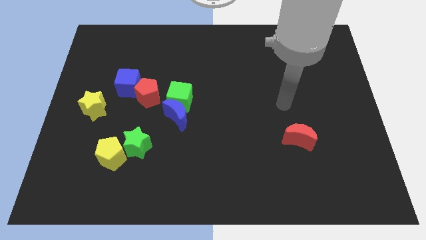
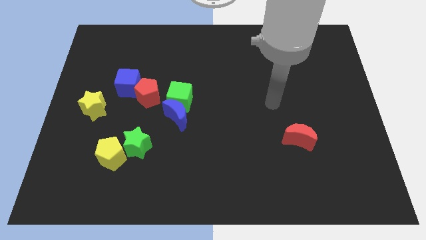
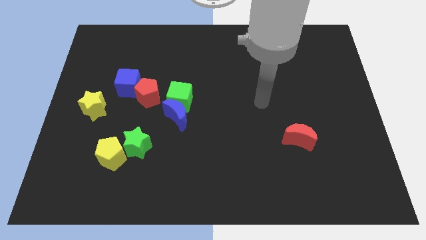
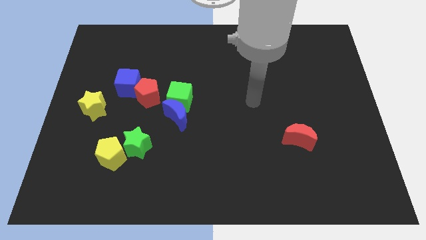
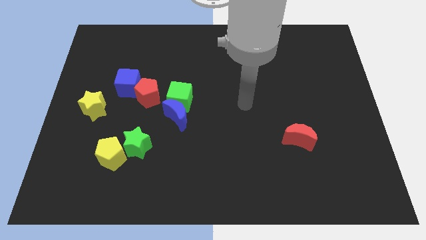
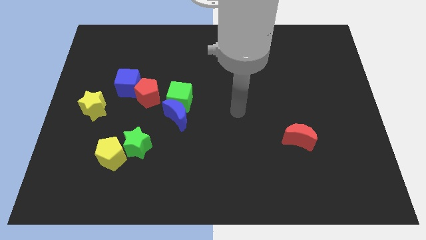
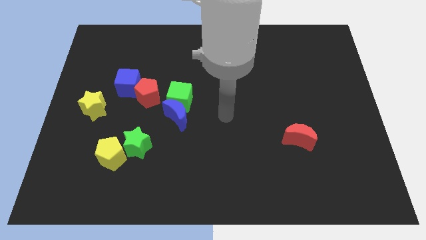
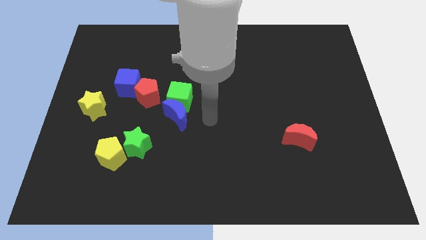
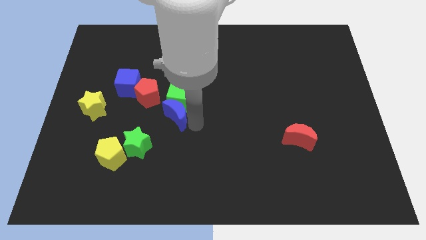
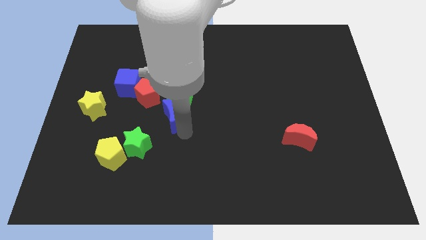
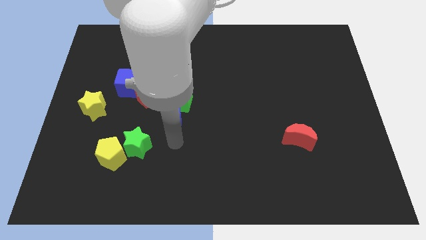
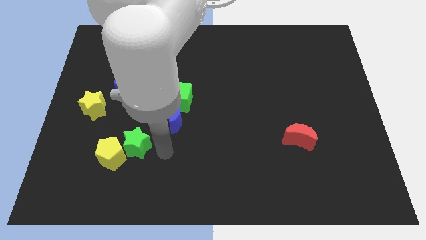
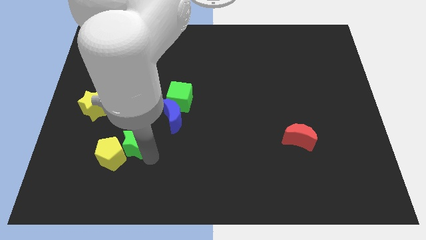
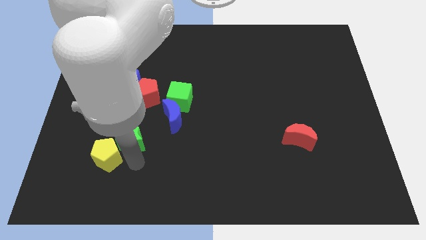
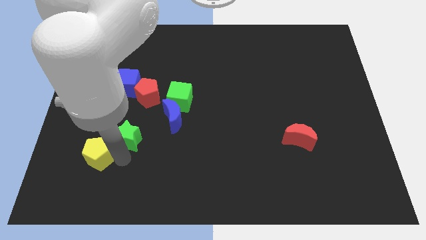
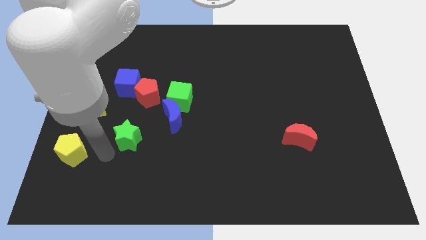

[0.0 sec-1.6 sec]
separate the green star from the yellow pentagon

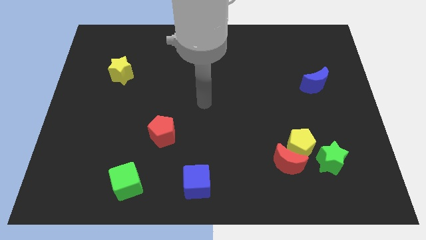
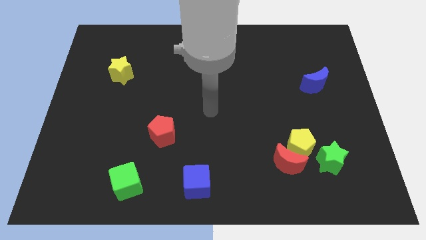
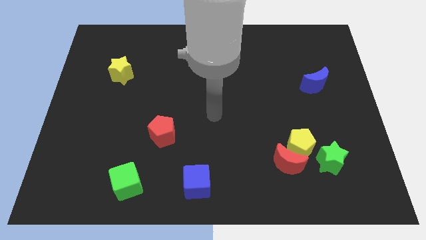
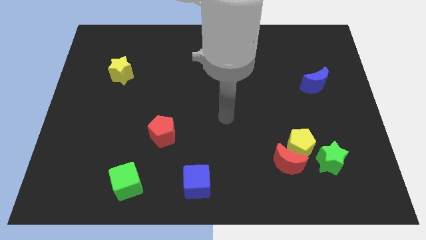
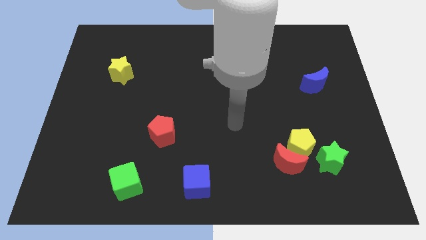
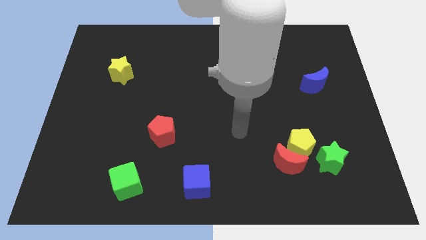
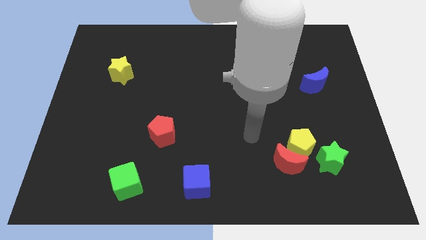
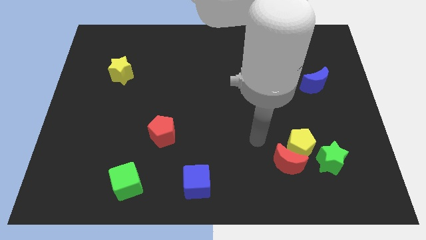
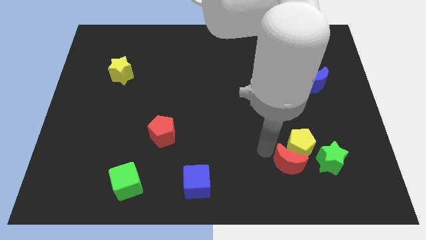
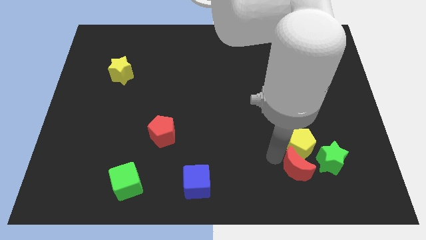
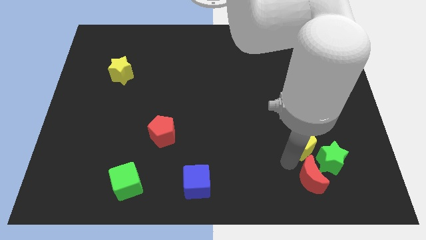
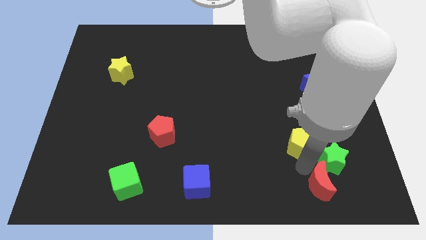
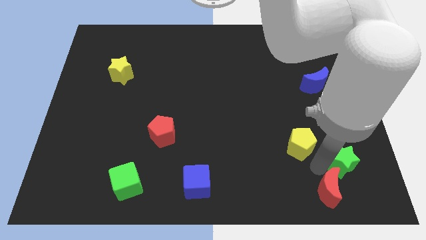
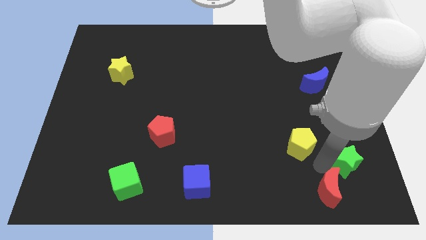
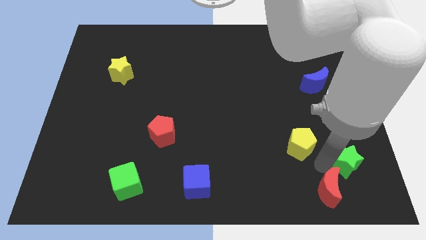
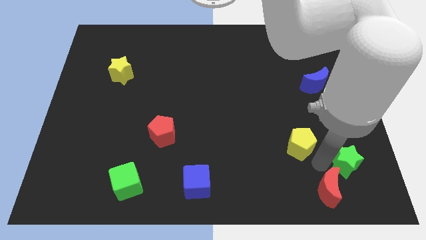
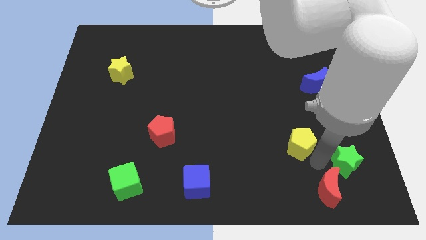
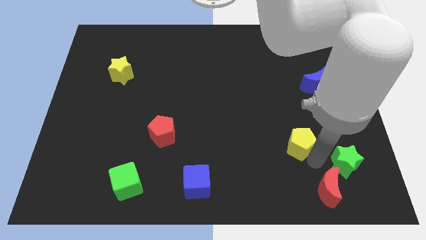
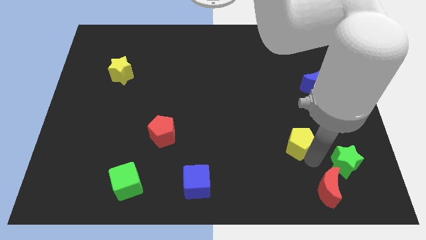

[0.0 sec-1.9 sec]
separate the yellow pentagon from the red moon and green star

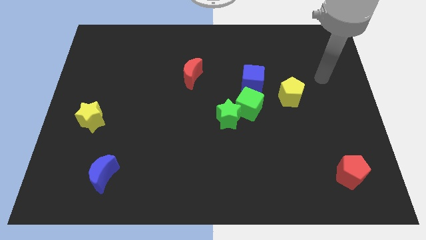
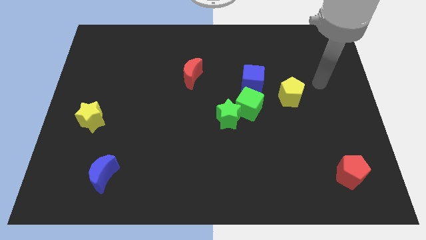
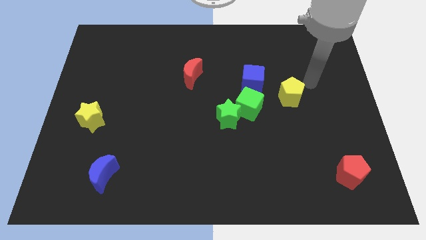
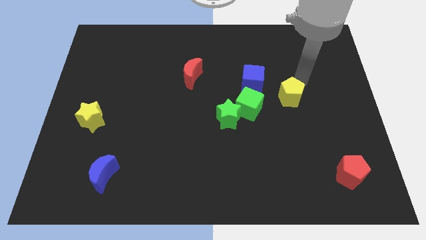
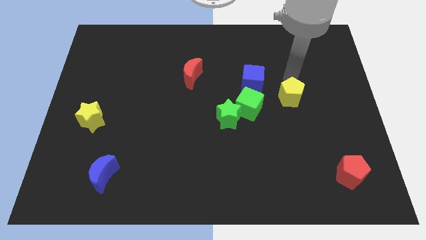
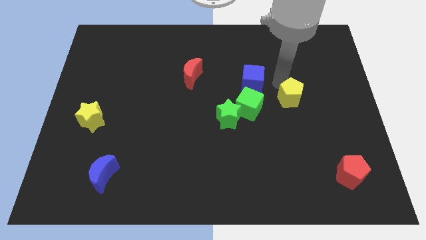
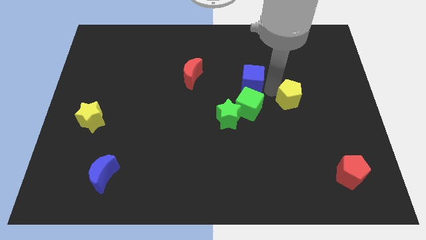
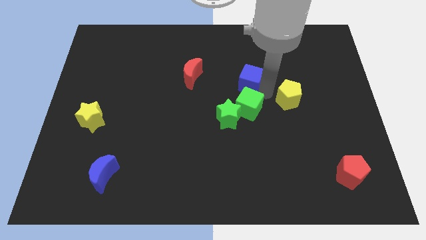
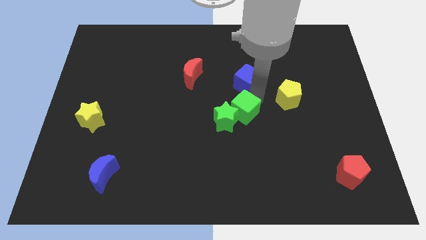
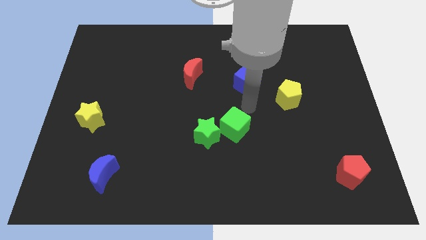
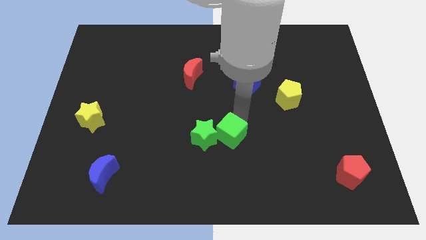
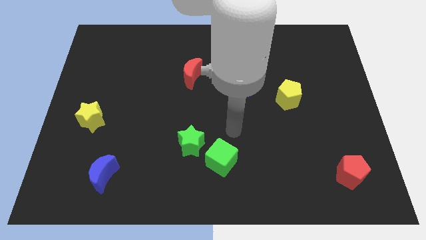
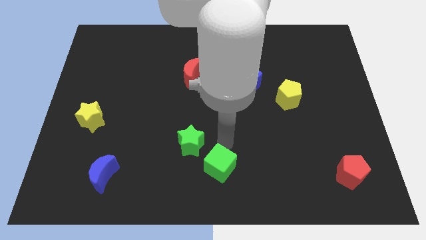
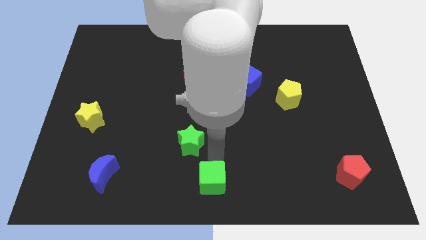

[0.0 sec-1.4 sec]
separate the green star from the green cube

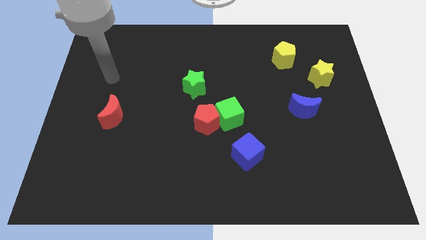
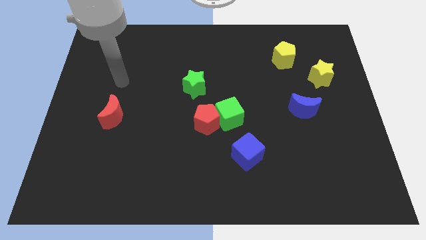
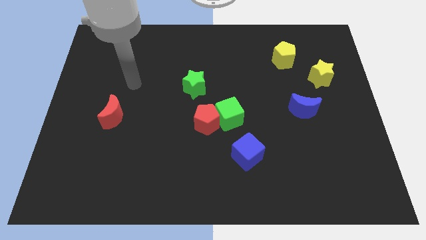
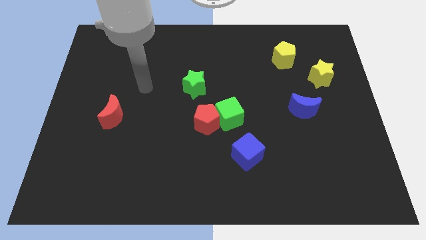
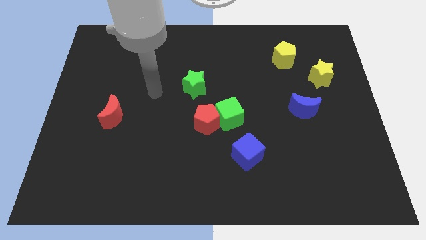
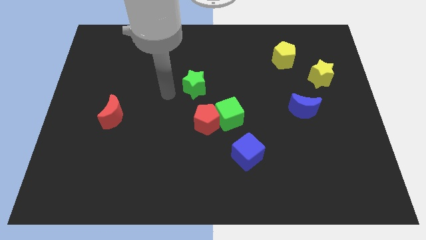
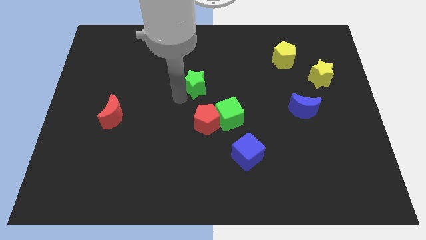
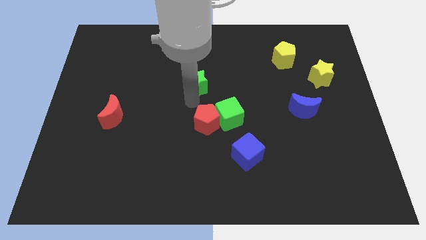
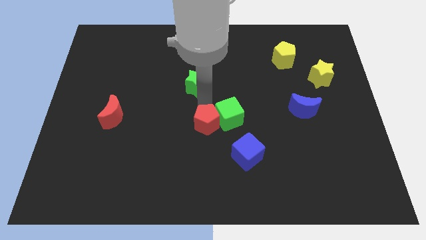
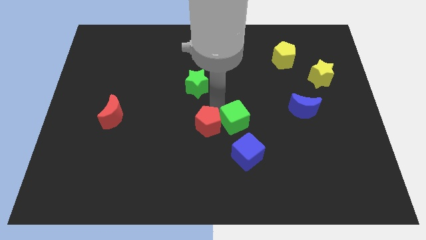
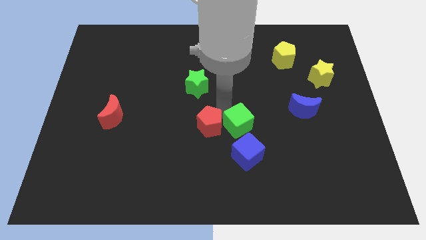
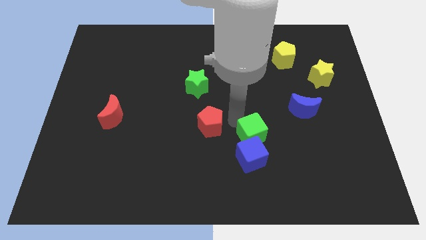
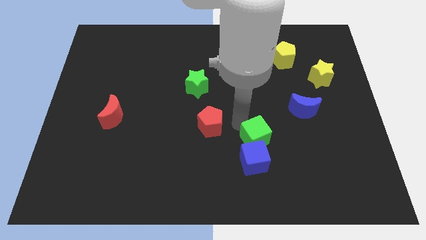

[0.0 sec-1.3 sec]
pull the red pentagon apart from the green cube

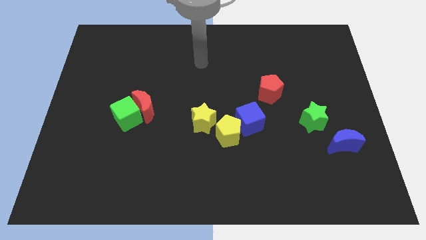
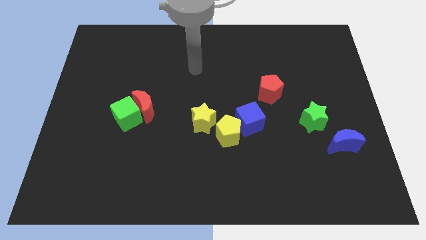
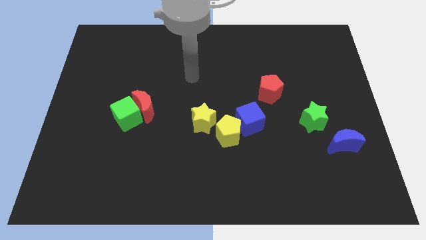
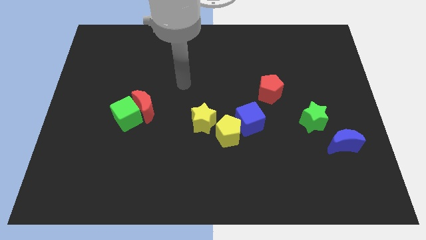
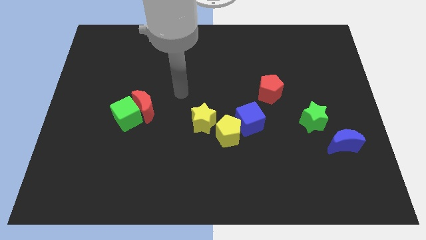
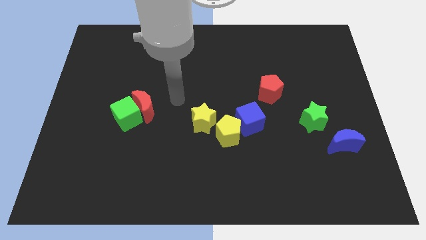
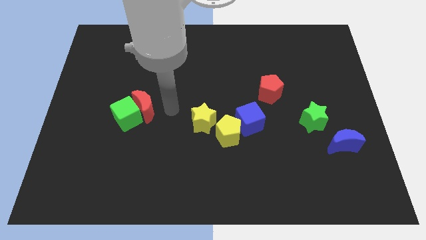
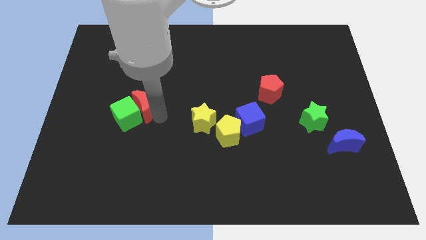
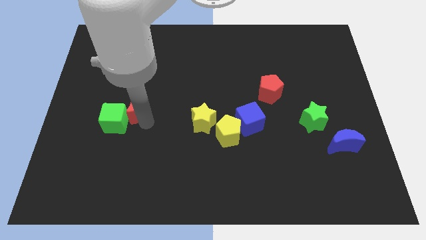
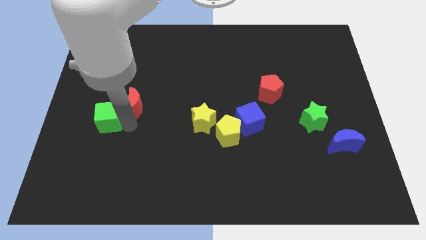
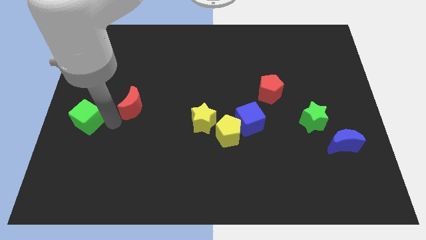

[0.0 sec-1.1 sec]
move the red moon away from the green cube

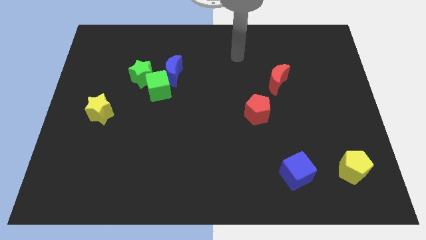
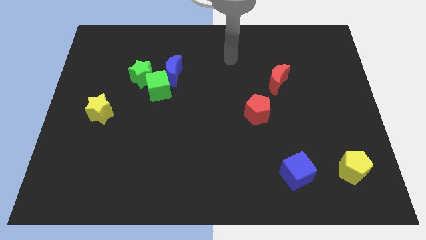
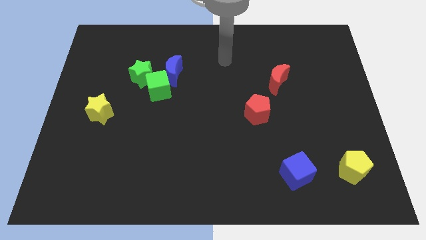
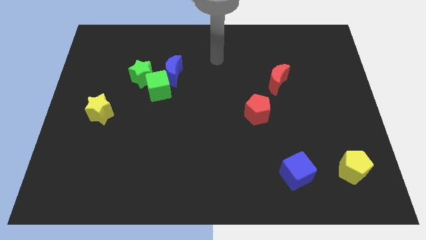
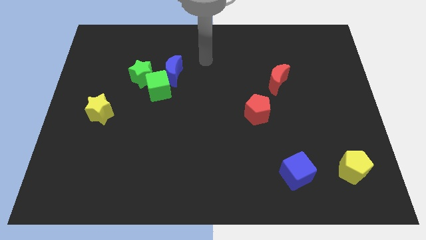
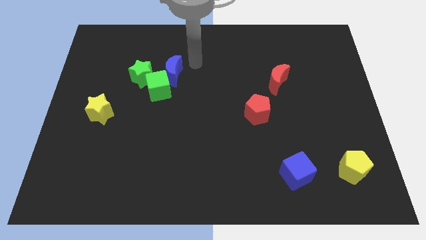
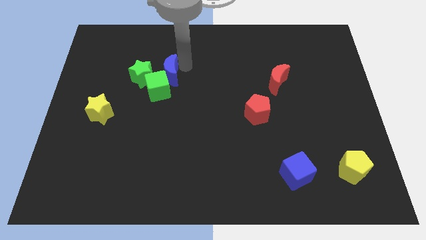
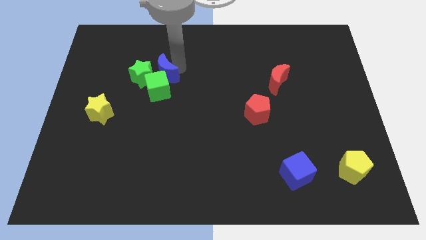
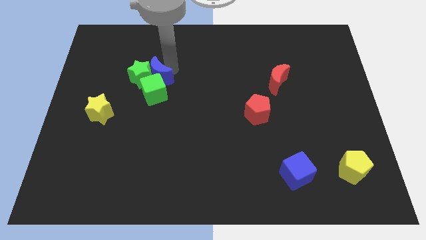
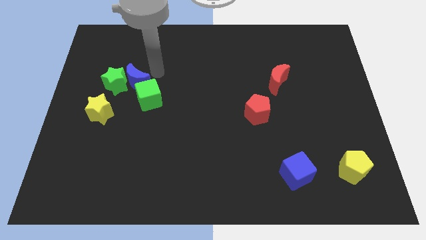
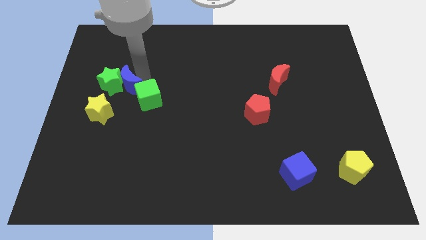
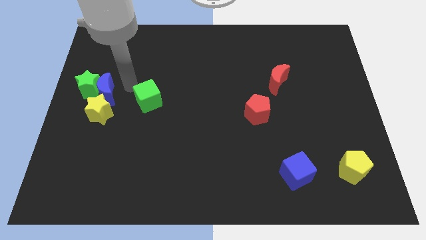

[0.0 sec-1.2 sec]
separate the green cube from the blue moon and green star

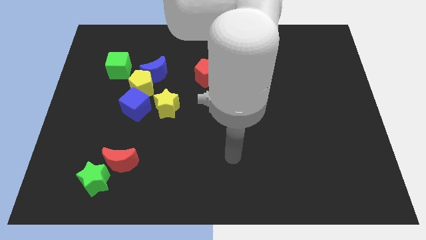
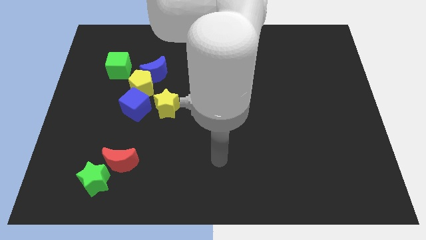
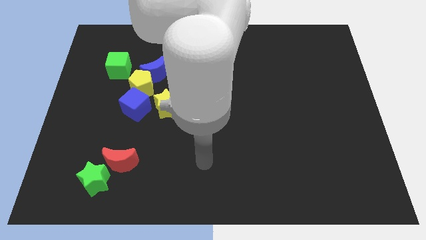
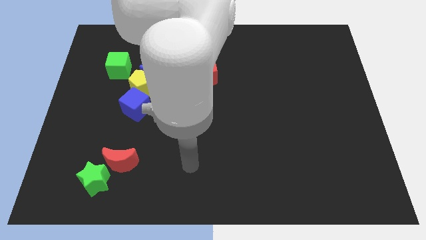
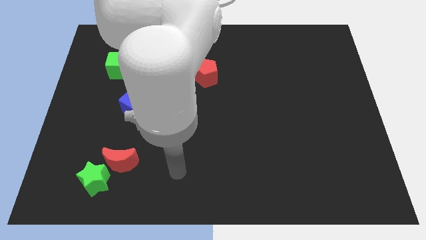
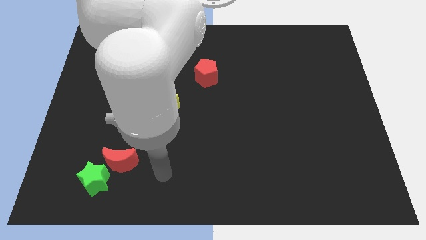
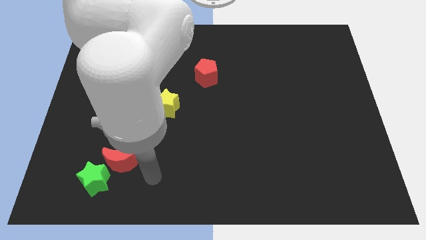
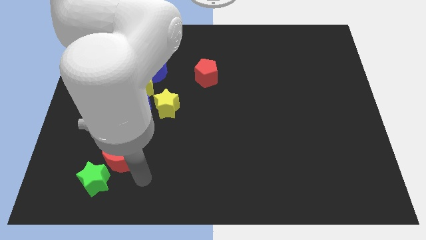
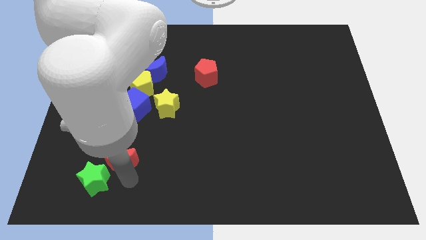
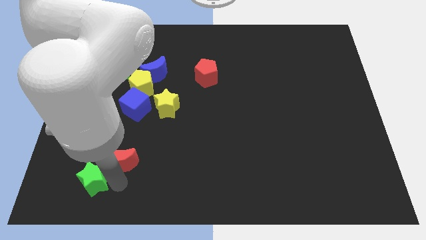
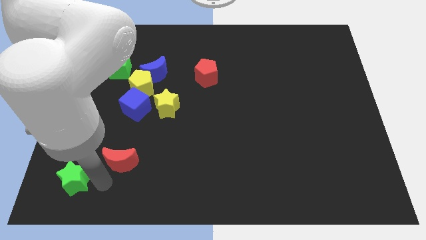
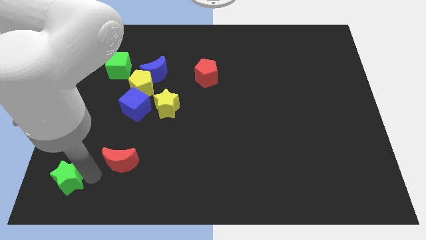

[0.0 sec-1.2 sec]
separate the red moon from the green star
